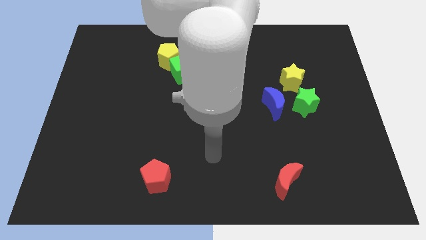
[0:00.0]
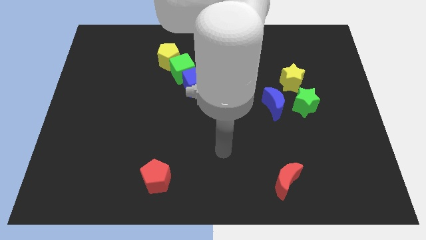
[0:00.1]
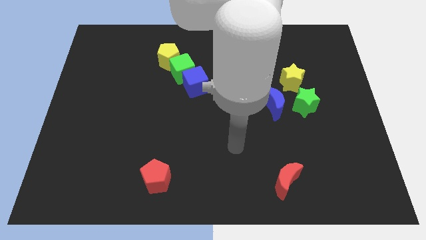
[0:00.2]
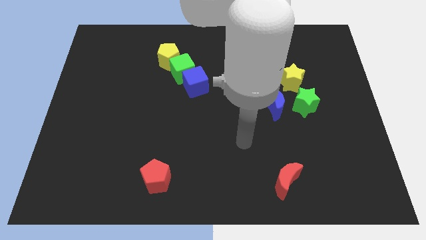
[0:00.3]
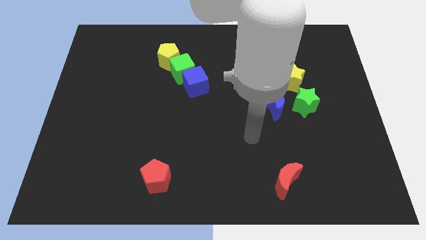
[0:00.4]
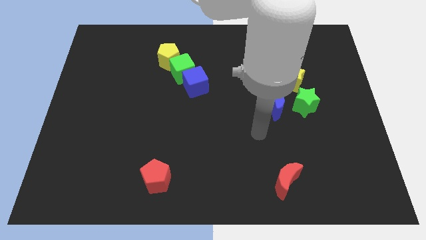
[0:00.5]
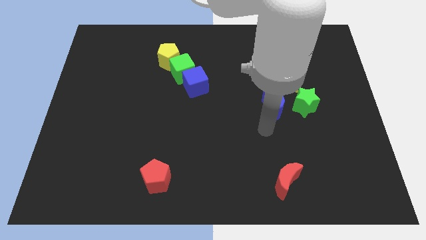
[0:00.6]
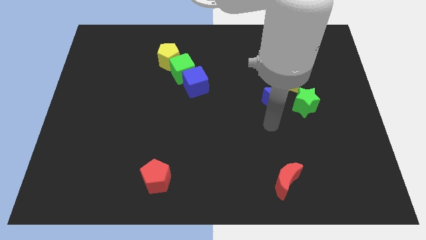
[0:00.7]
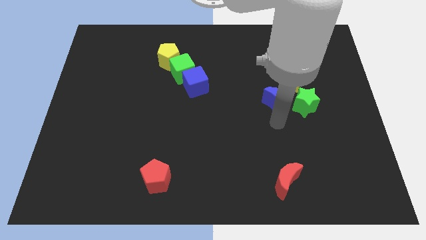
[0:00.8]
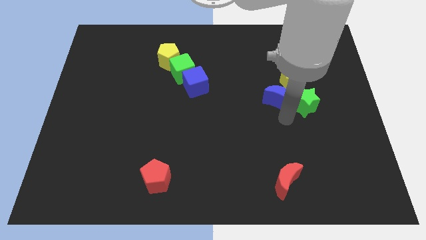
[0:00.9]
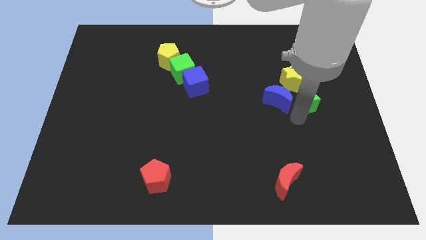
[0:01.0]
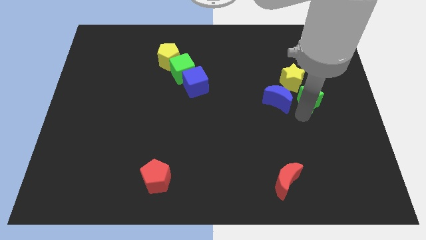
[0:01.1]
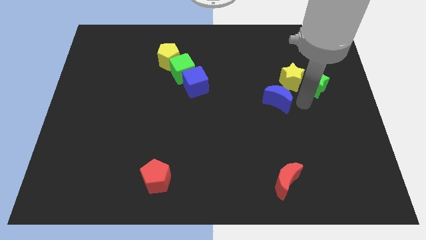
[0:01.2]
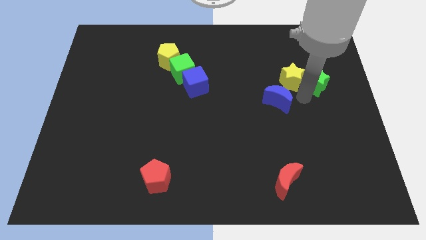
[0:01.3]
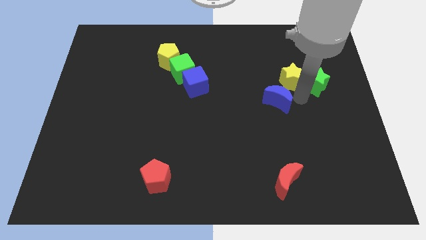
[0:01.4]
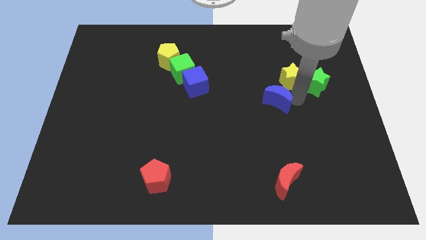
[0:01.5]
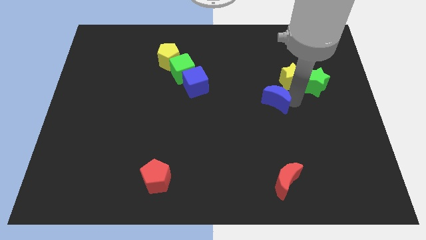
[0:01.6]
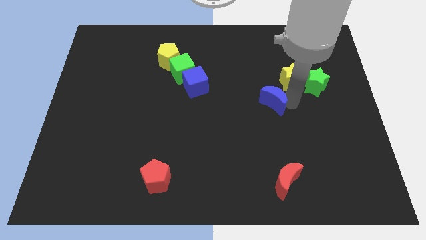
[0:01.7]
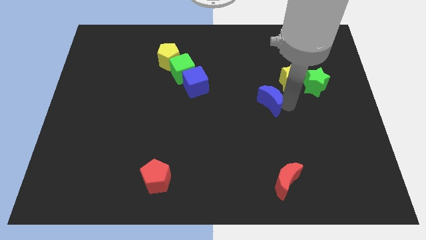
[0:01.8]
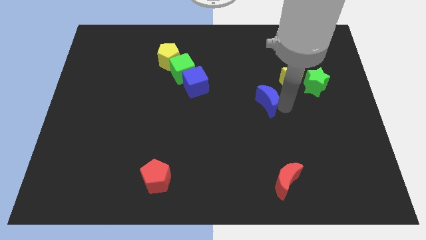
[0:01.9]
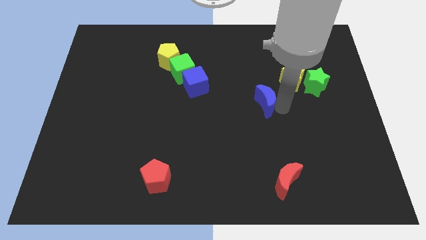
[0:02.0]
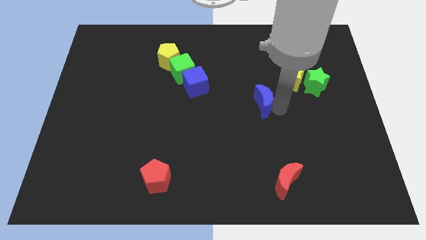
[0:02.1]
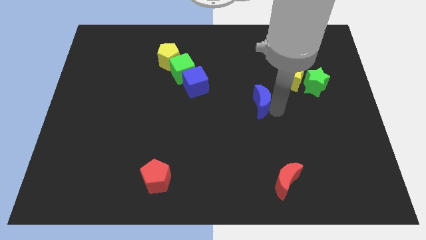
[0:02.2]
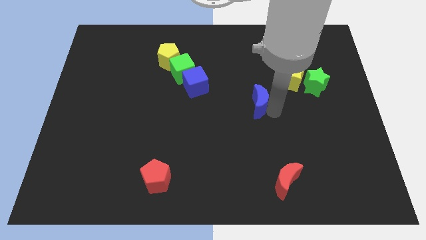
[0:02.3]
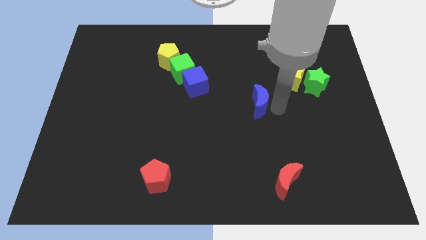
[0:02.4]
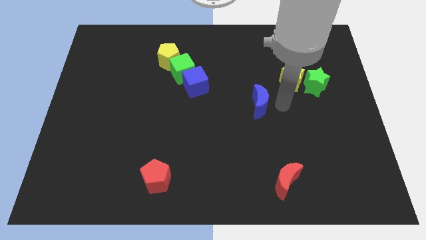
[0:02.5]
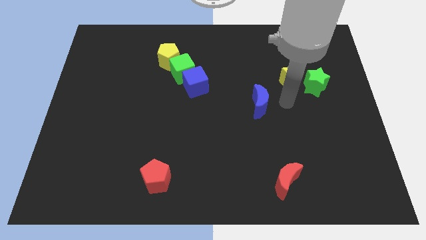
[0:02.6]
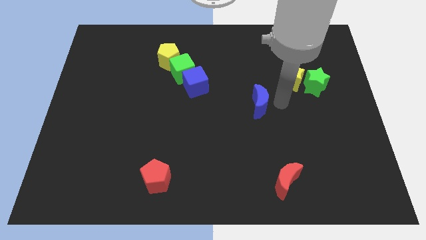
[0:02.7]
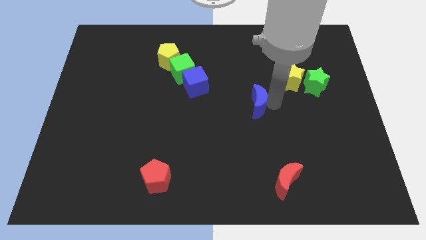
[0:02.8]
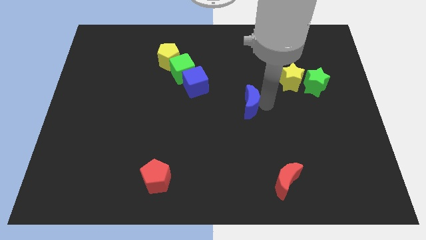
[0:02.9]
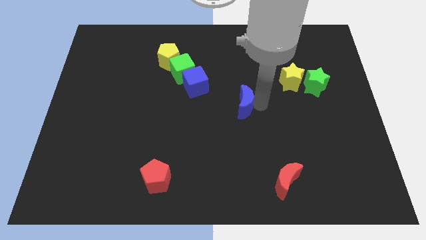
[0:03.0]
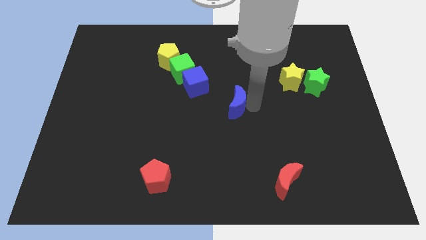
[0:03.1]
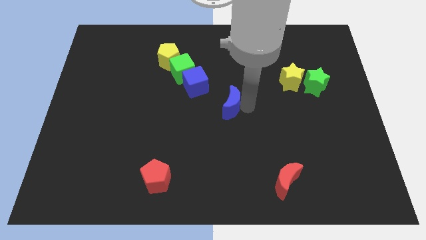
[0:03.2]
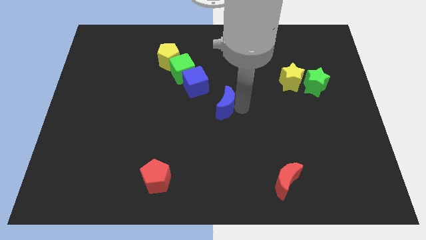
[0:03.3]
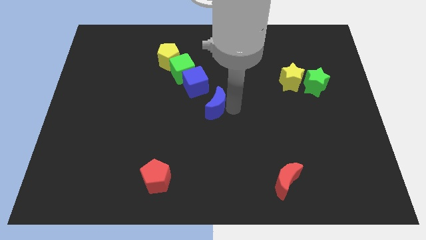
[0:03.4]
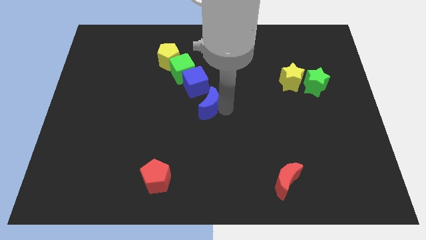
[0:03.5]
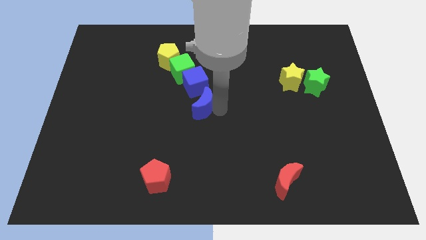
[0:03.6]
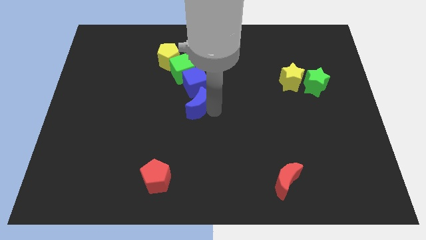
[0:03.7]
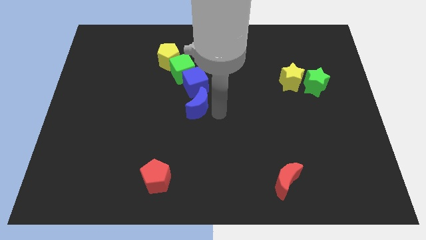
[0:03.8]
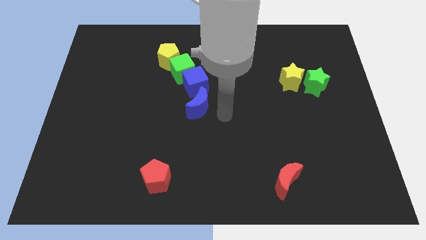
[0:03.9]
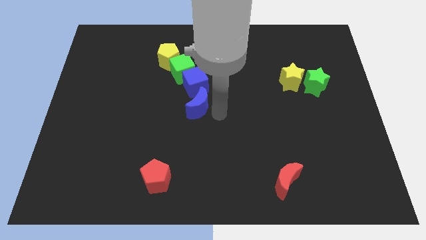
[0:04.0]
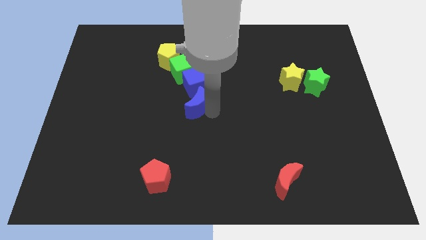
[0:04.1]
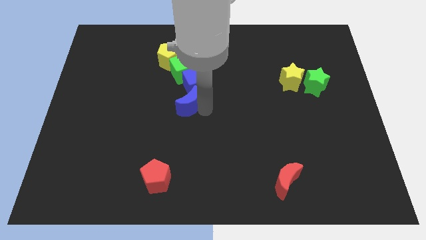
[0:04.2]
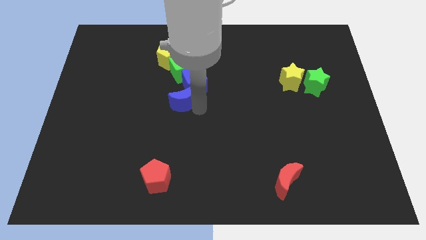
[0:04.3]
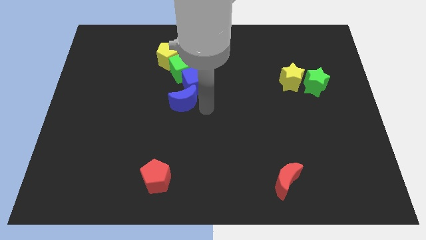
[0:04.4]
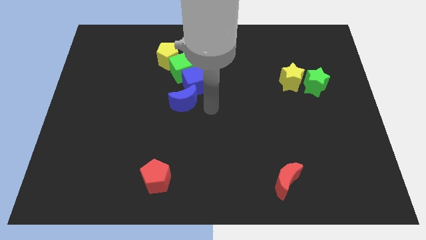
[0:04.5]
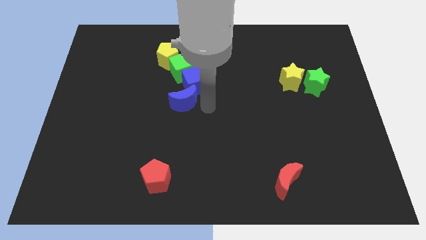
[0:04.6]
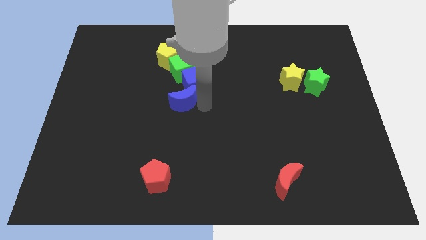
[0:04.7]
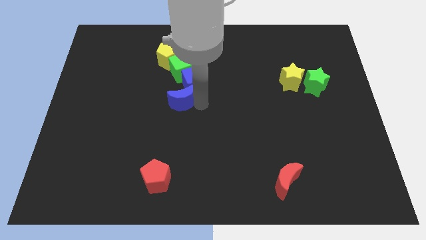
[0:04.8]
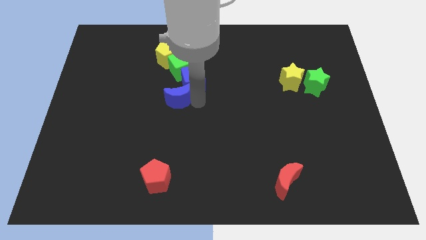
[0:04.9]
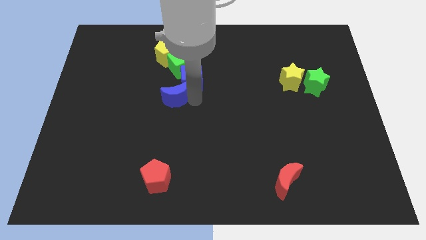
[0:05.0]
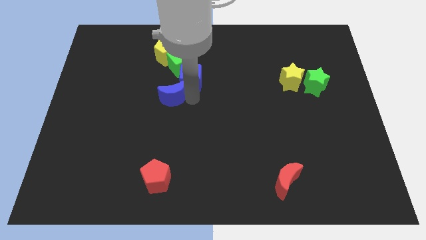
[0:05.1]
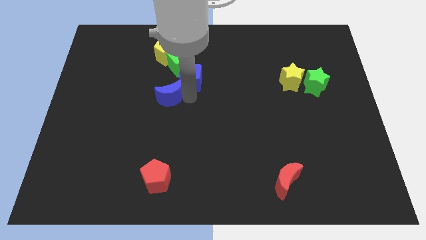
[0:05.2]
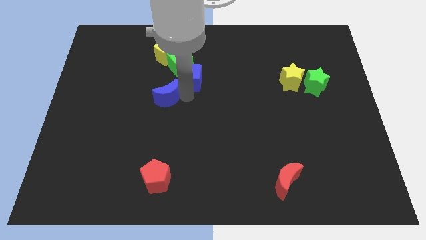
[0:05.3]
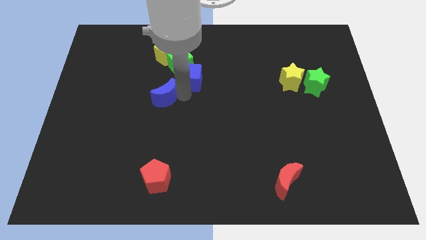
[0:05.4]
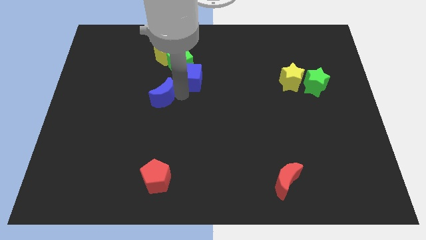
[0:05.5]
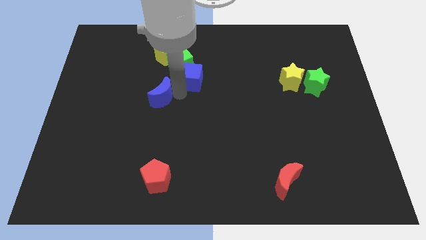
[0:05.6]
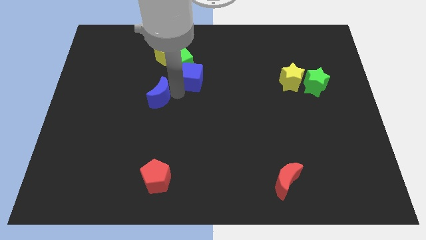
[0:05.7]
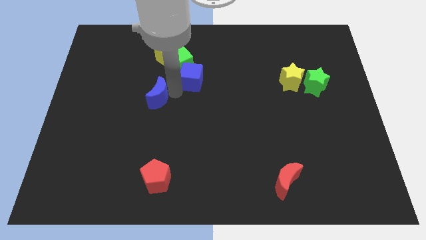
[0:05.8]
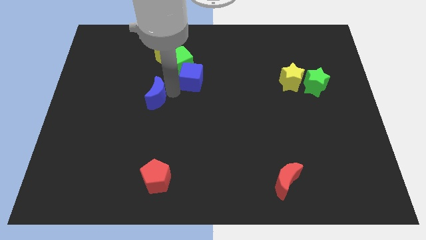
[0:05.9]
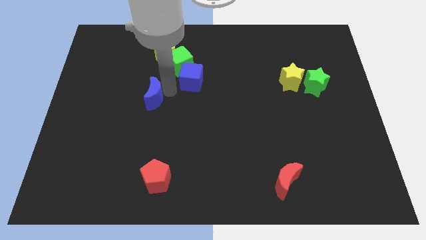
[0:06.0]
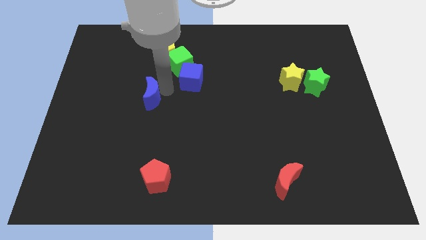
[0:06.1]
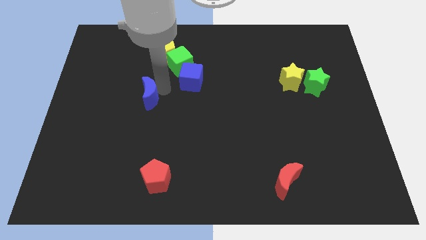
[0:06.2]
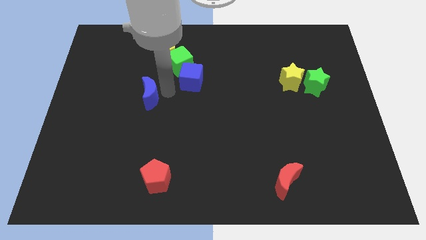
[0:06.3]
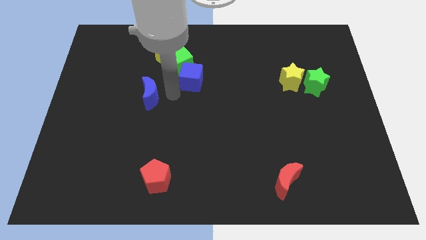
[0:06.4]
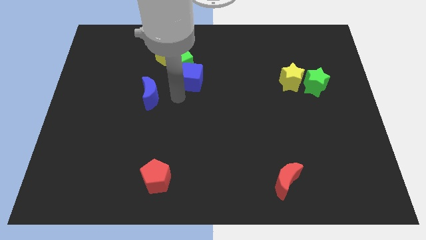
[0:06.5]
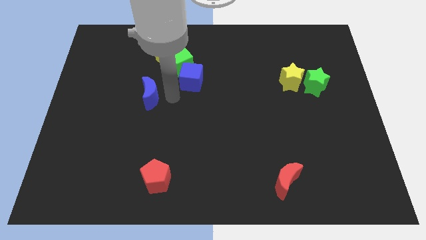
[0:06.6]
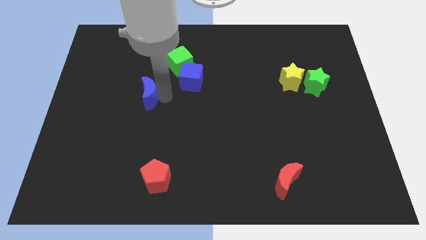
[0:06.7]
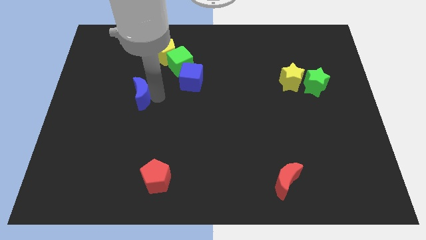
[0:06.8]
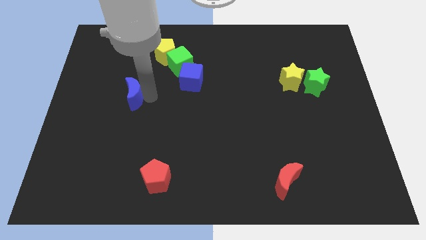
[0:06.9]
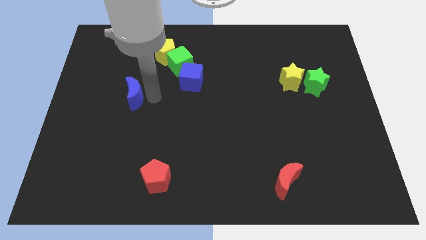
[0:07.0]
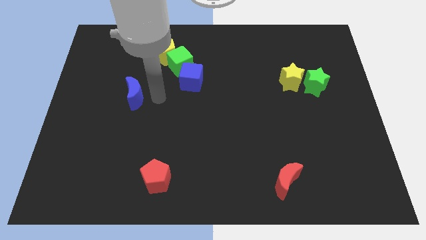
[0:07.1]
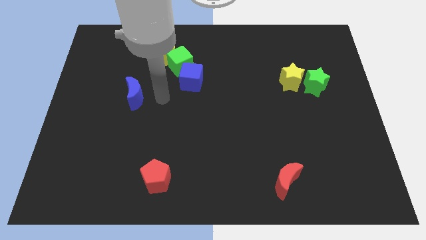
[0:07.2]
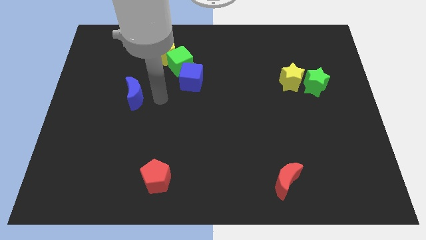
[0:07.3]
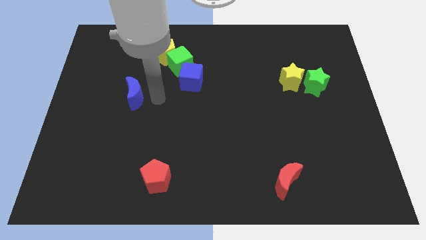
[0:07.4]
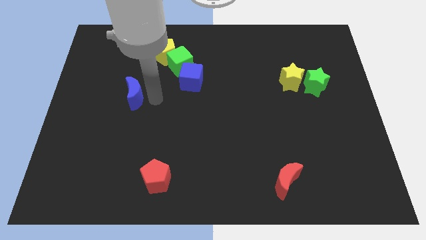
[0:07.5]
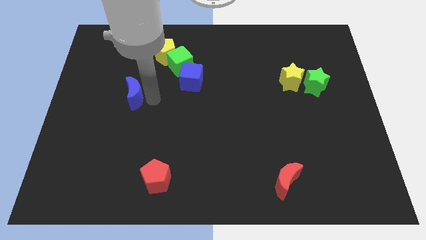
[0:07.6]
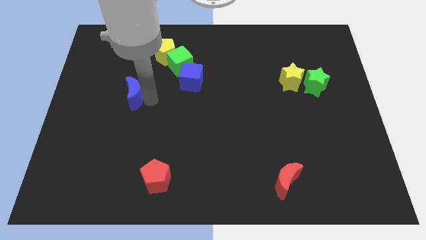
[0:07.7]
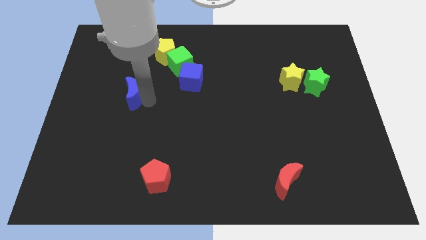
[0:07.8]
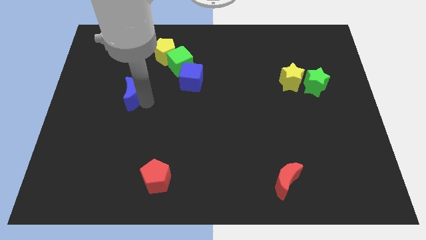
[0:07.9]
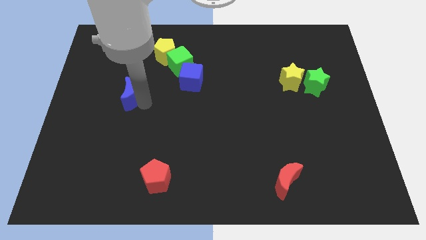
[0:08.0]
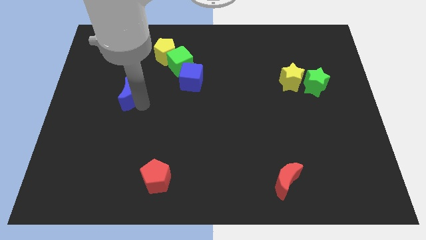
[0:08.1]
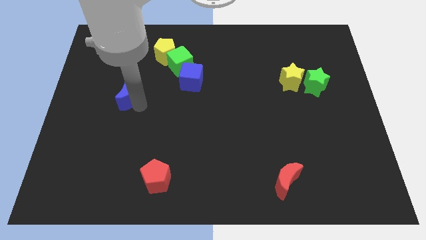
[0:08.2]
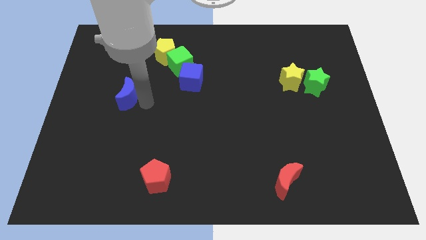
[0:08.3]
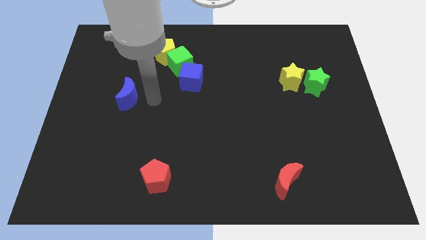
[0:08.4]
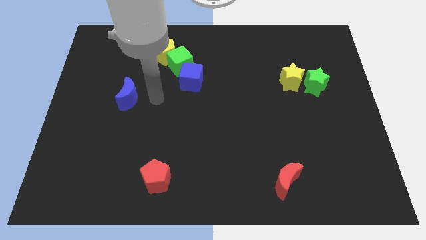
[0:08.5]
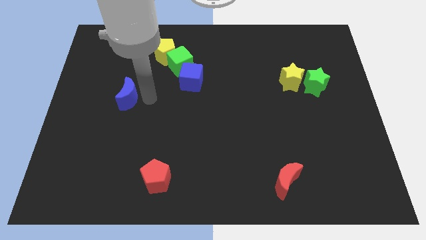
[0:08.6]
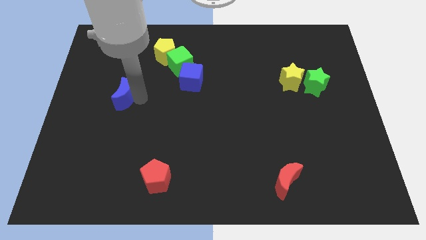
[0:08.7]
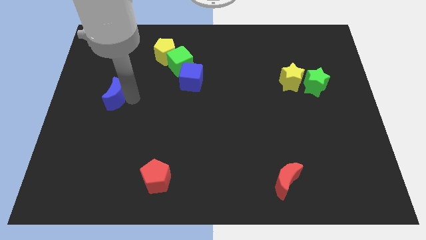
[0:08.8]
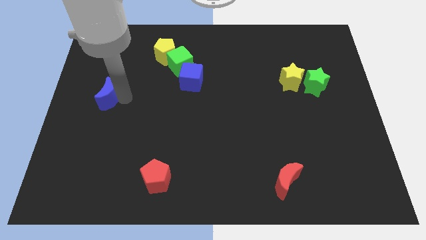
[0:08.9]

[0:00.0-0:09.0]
put the blue moon to the left side of the board
